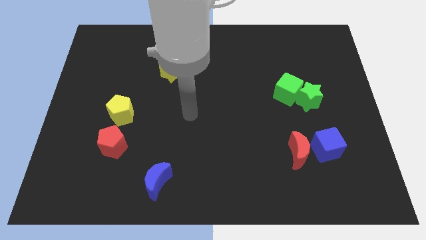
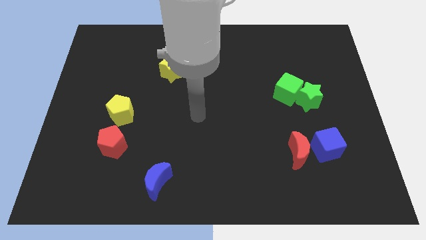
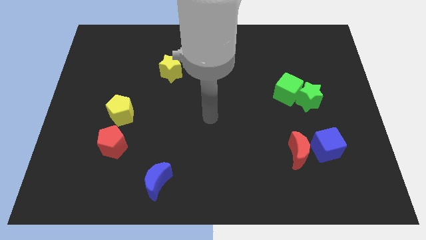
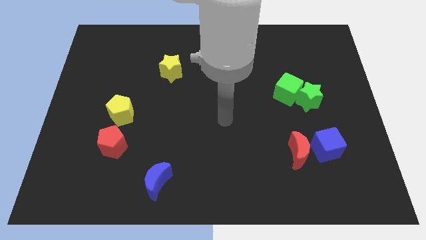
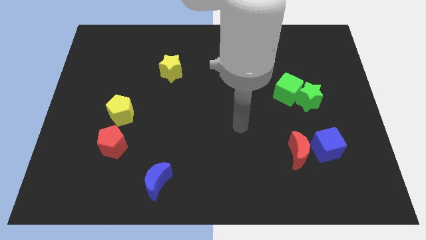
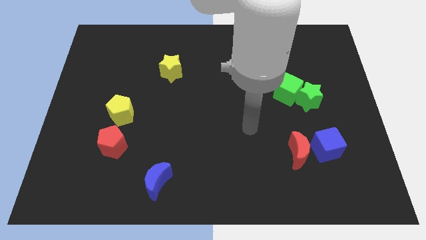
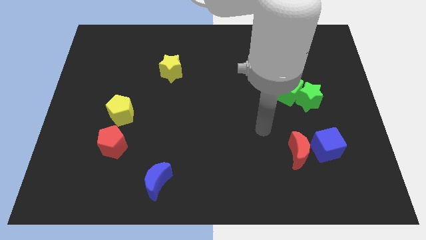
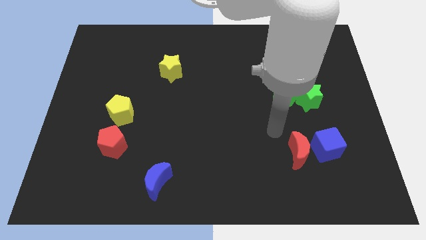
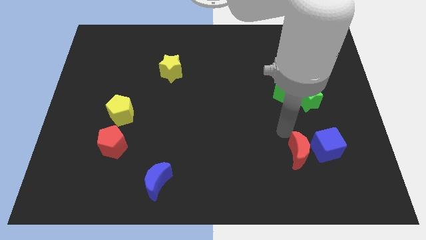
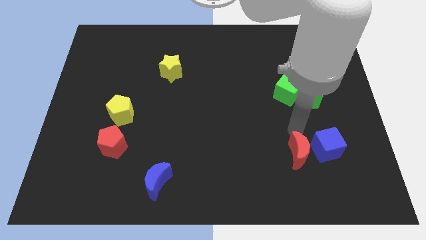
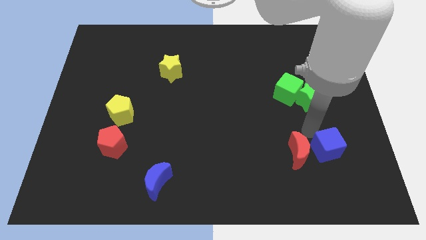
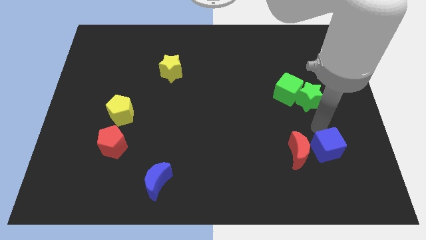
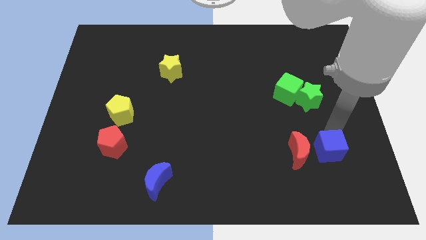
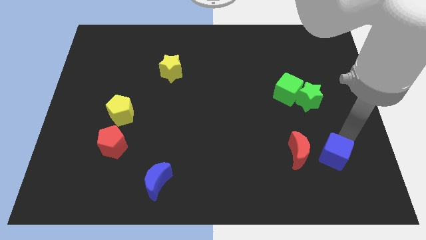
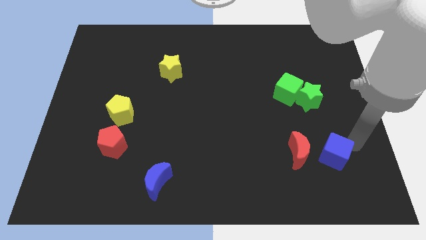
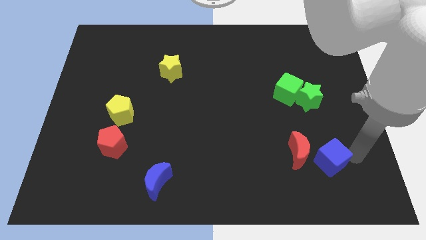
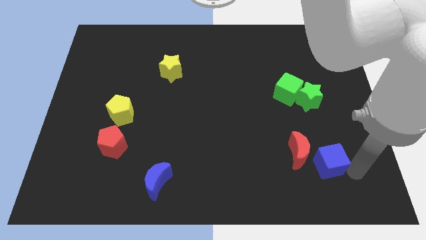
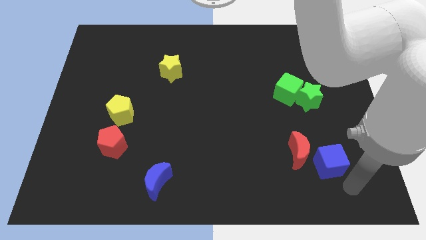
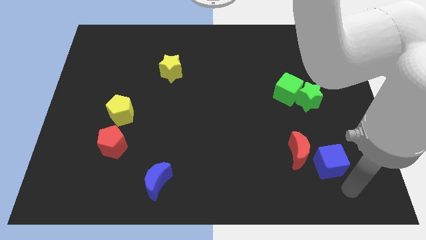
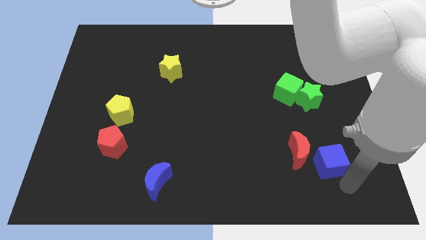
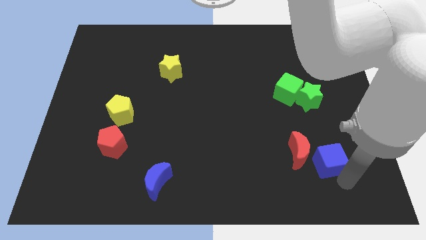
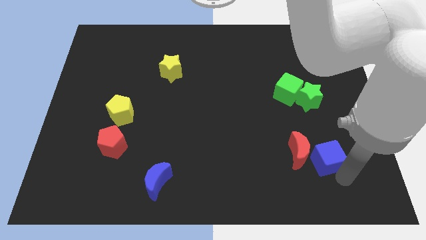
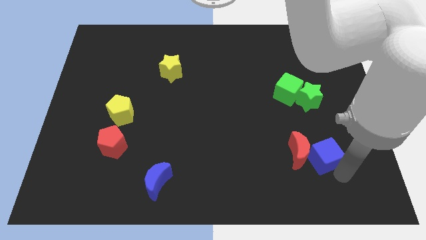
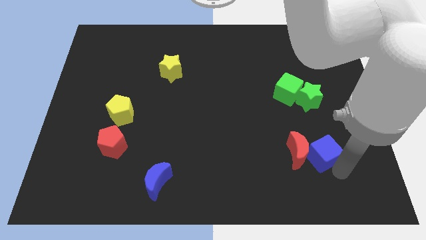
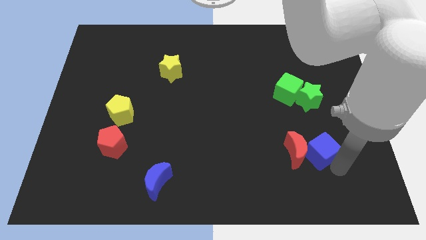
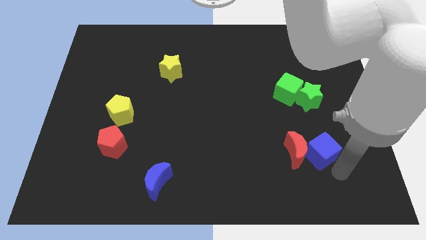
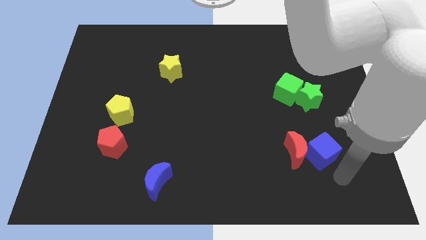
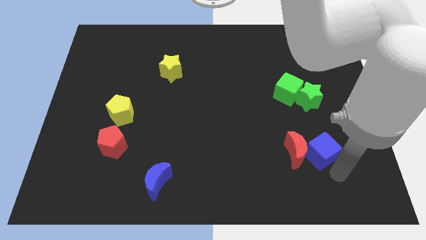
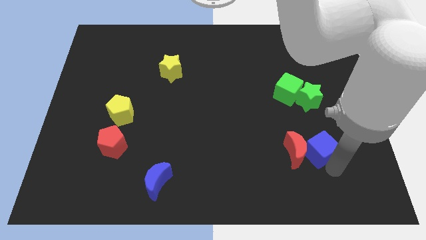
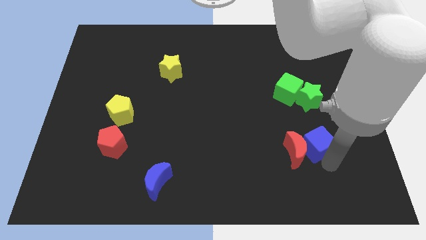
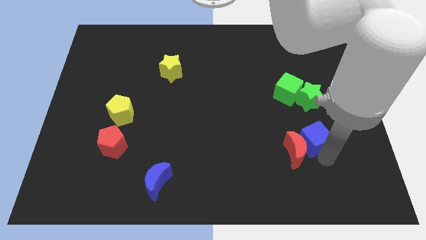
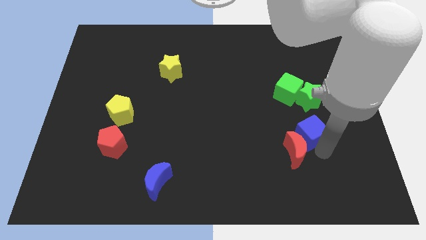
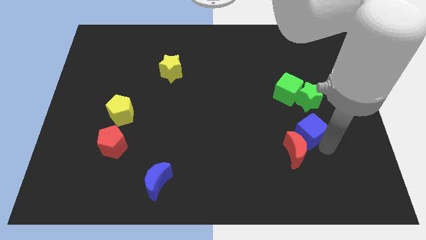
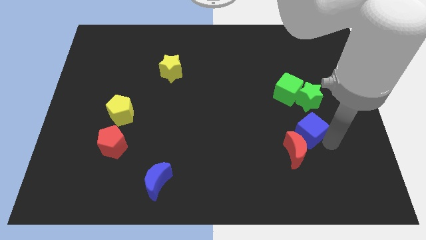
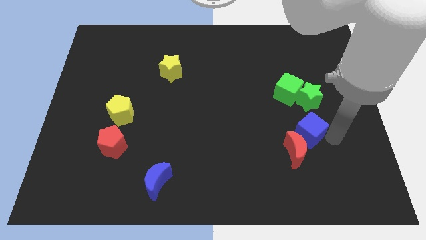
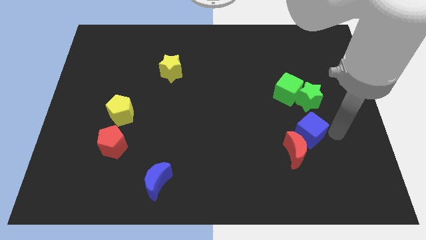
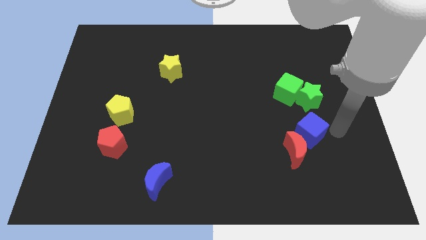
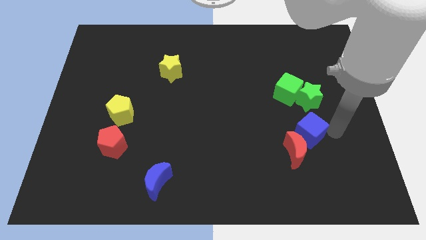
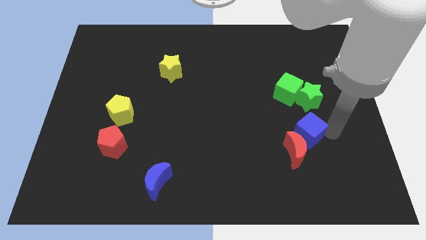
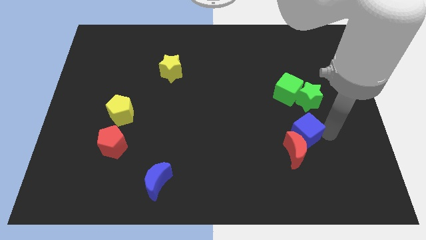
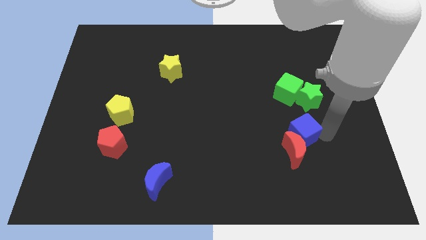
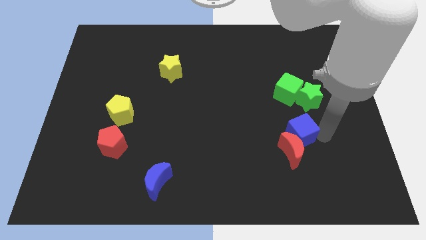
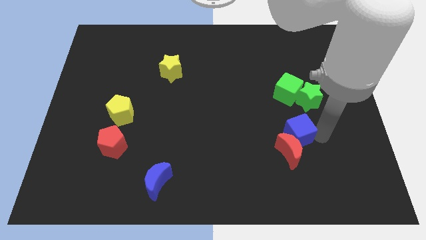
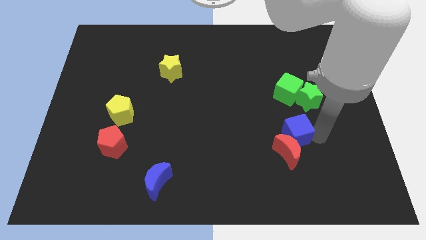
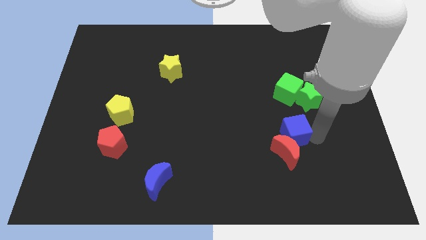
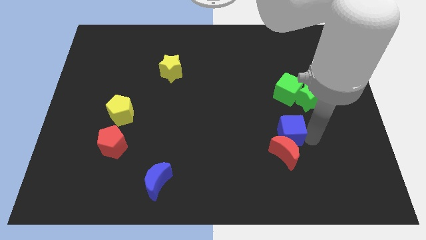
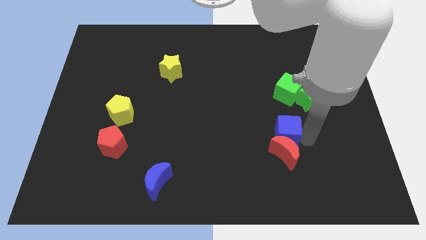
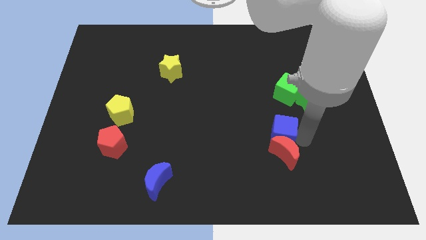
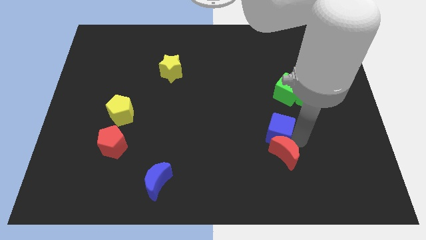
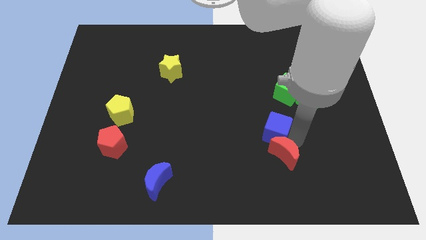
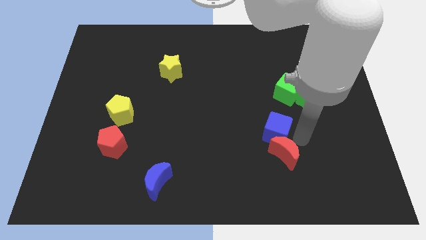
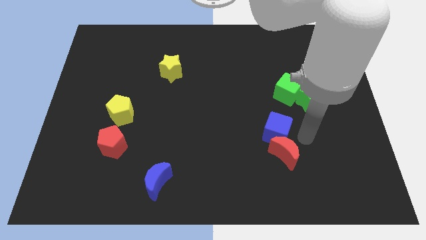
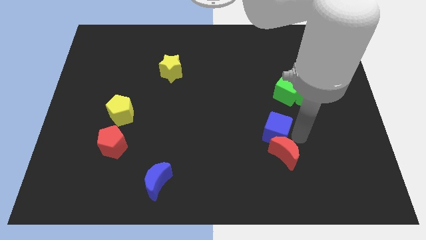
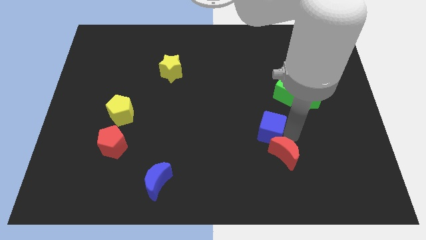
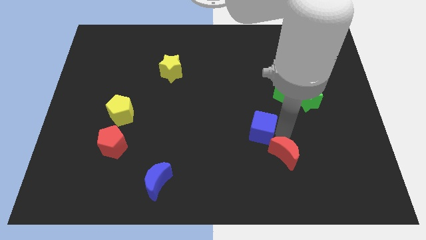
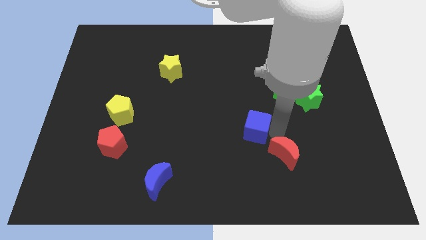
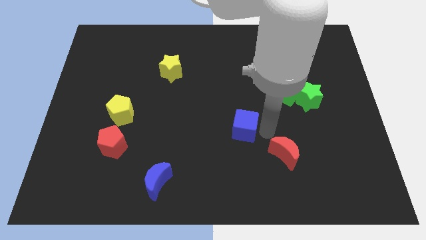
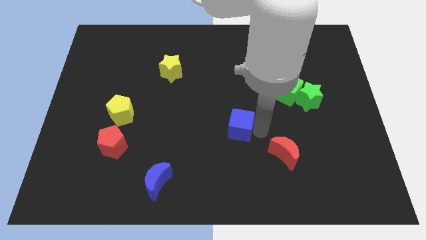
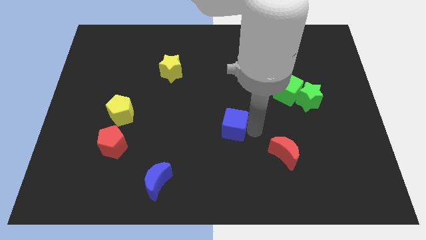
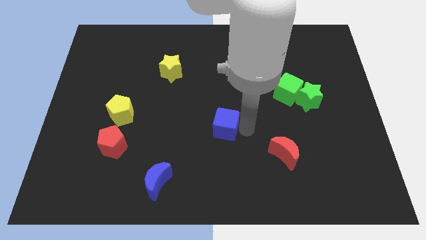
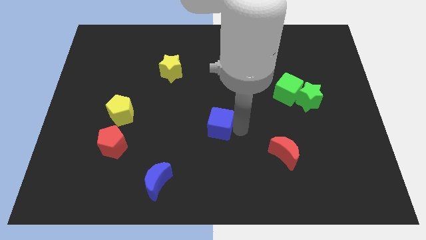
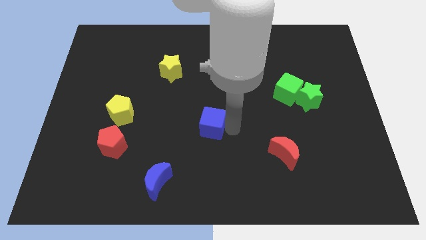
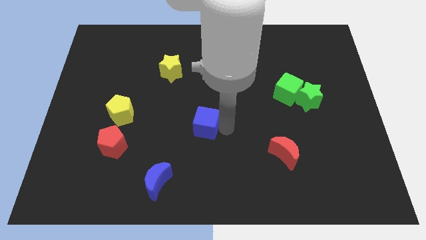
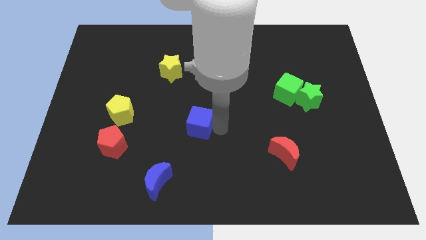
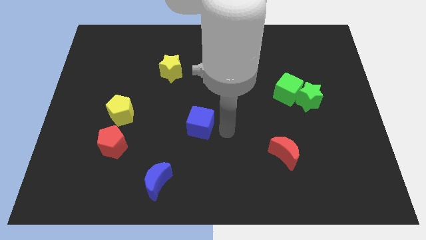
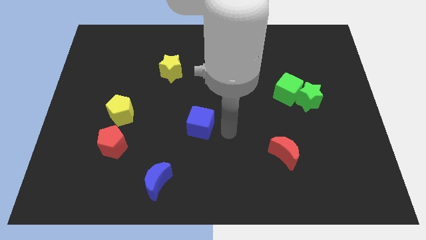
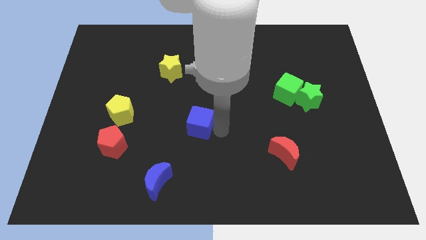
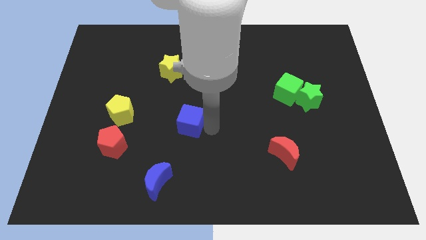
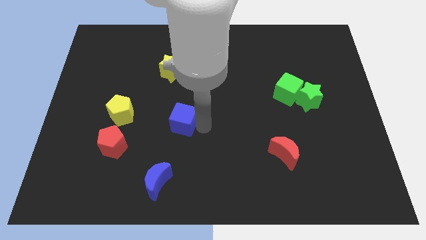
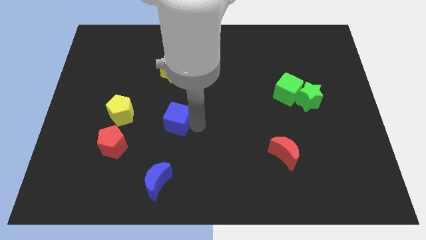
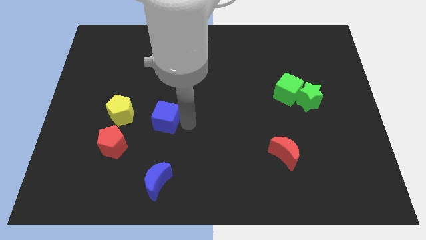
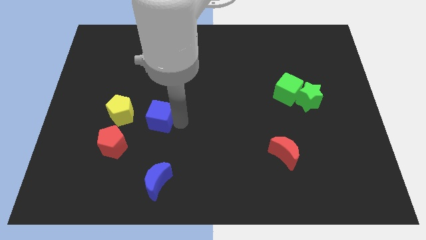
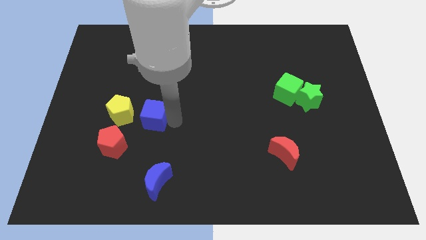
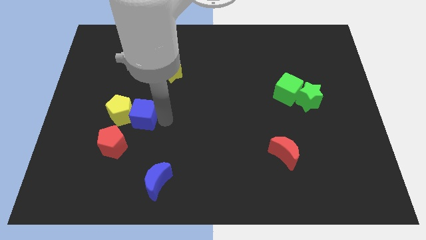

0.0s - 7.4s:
slide the blue cube next to the yellow pentagon
